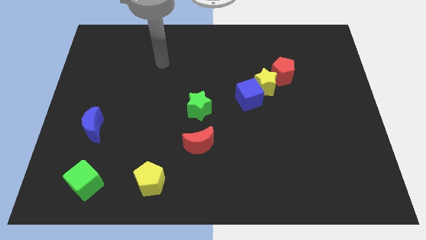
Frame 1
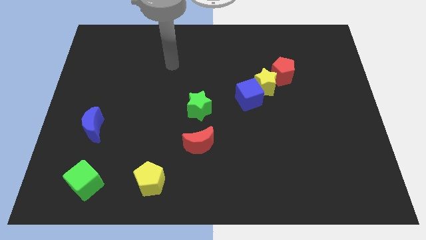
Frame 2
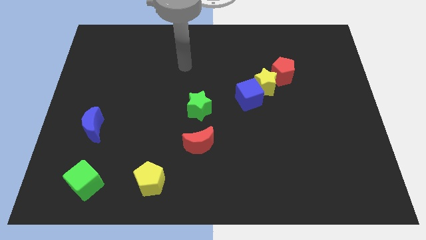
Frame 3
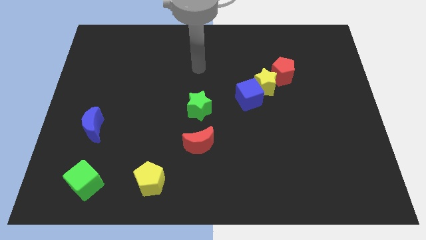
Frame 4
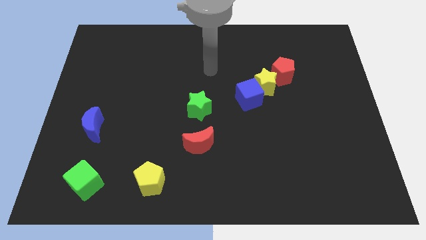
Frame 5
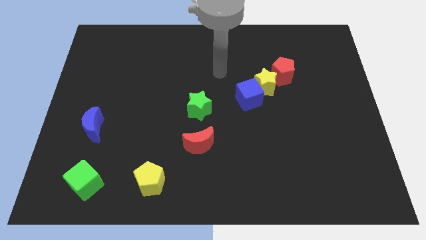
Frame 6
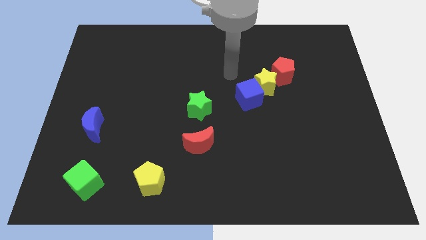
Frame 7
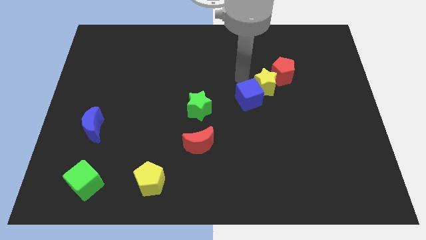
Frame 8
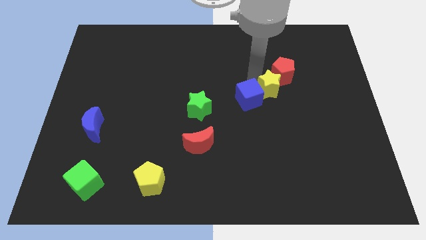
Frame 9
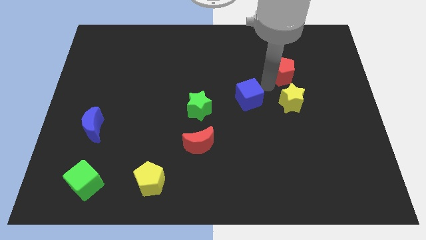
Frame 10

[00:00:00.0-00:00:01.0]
pull the blue cube apart from the yellow star

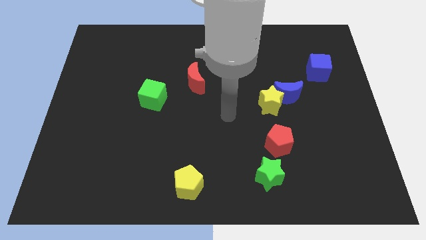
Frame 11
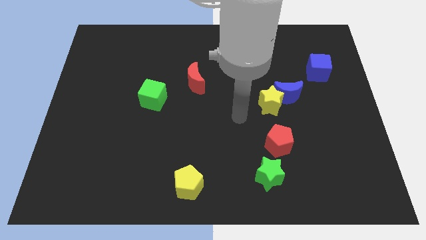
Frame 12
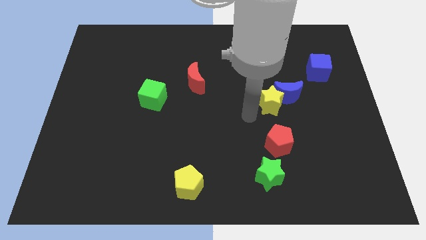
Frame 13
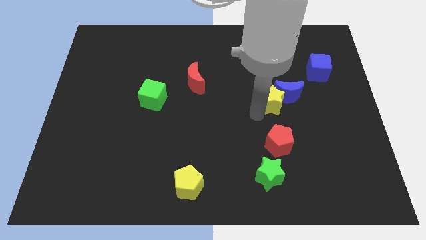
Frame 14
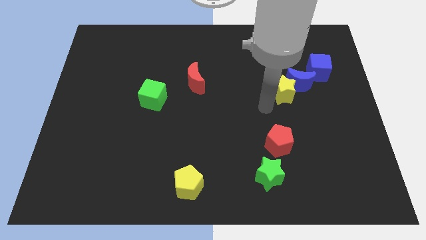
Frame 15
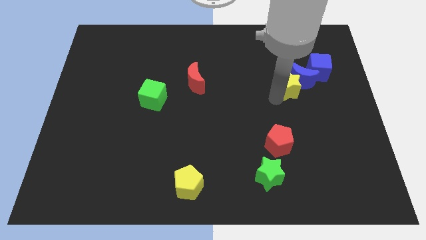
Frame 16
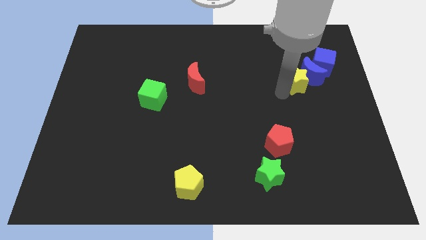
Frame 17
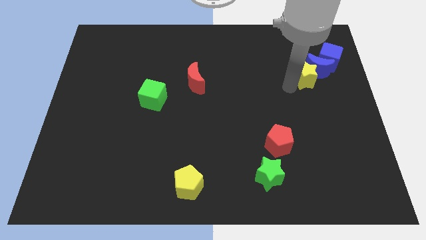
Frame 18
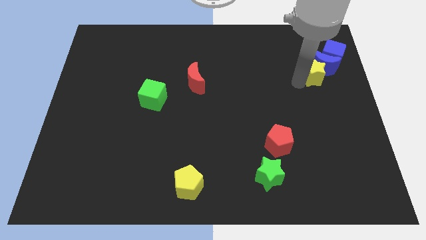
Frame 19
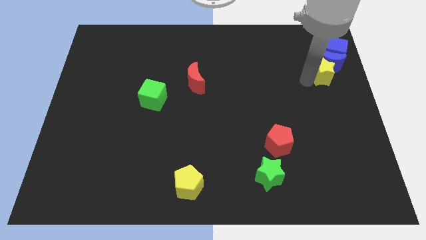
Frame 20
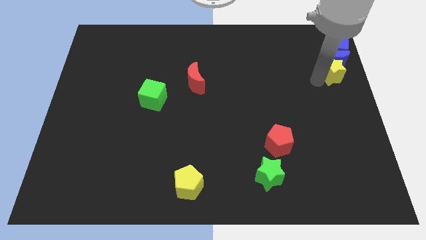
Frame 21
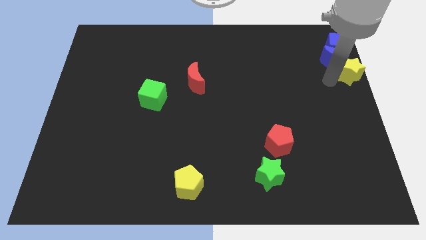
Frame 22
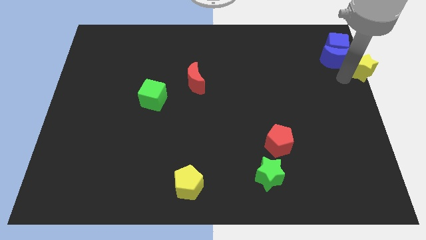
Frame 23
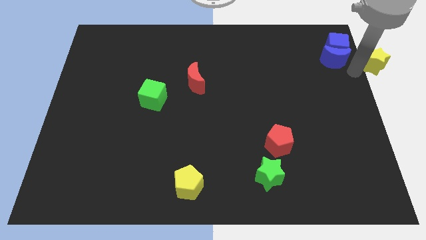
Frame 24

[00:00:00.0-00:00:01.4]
separate the blue moon from the yellow star

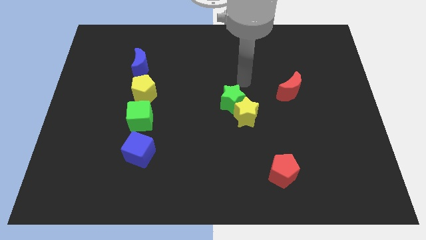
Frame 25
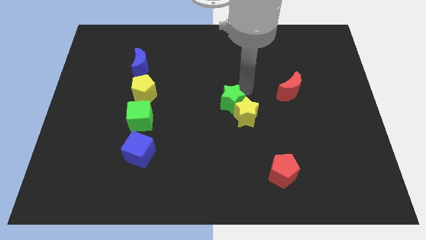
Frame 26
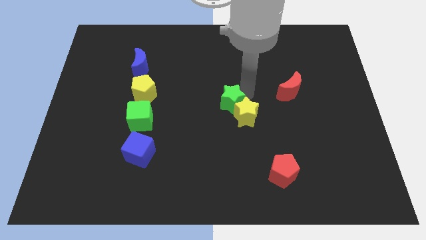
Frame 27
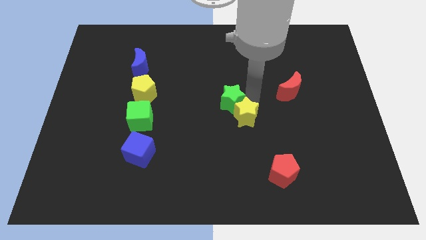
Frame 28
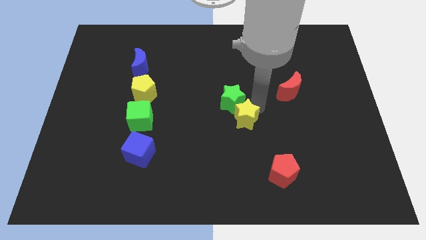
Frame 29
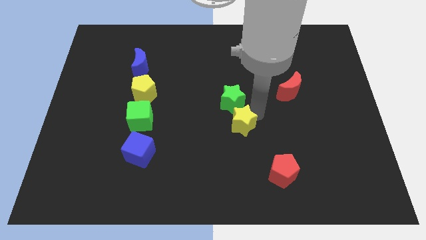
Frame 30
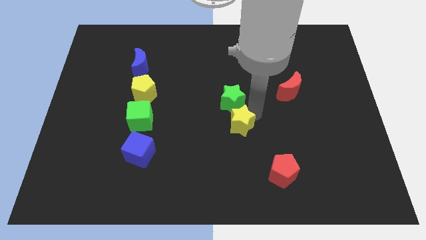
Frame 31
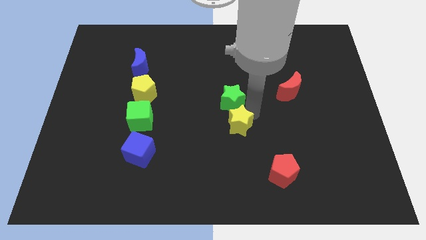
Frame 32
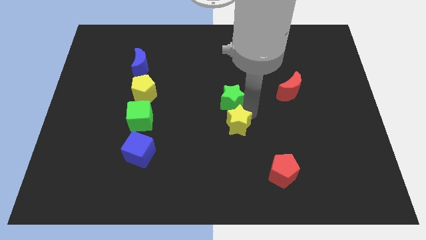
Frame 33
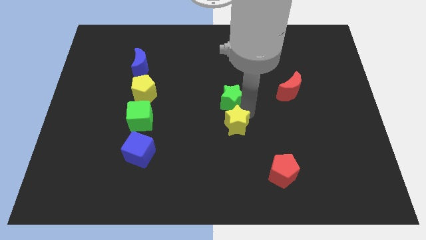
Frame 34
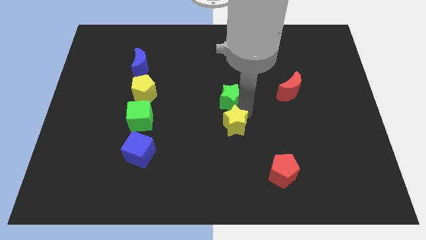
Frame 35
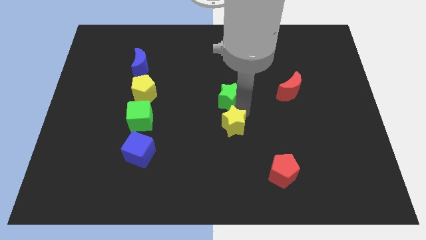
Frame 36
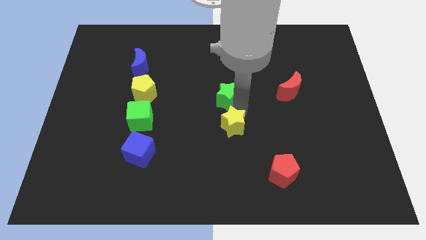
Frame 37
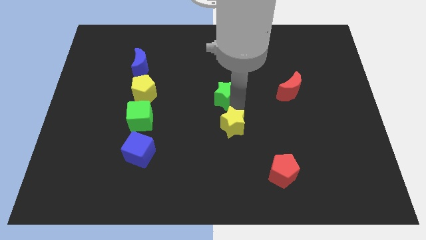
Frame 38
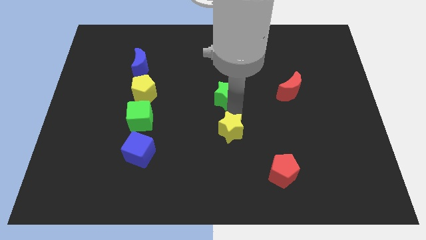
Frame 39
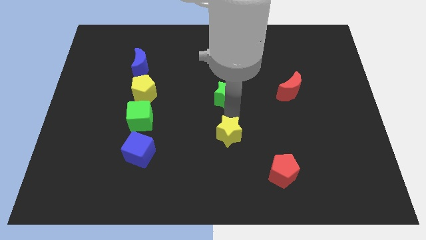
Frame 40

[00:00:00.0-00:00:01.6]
move the green star away from the yellow star

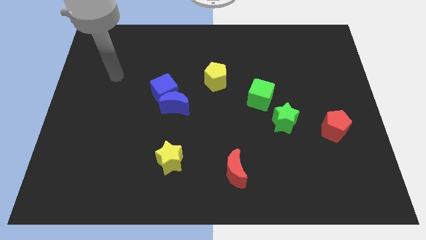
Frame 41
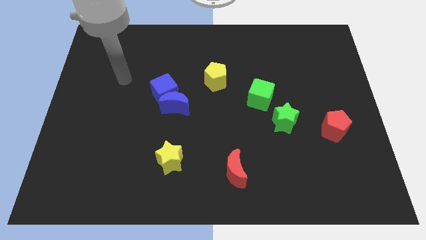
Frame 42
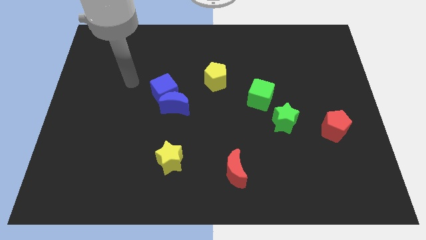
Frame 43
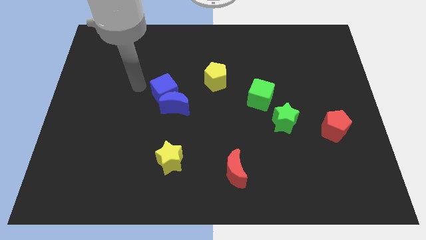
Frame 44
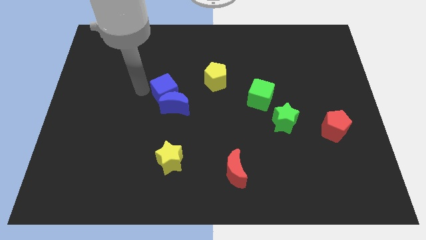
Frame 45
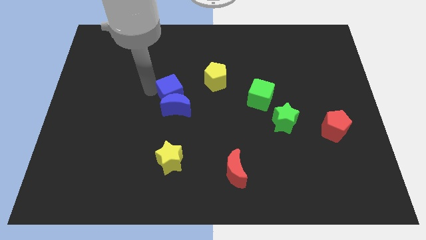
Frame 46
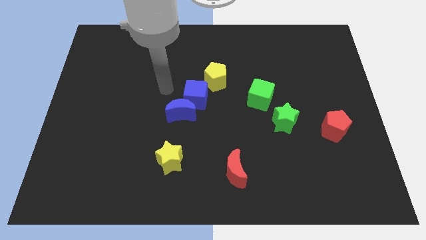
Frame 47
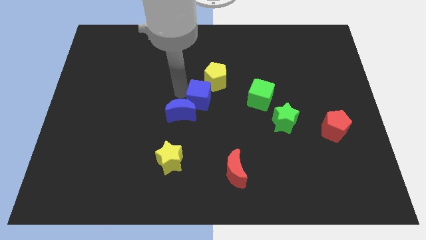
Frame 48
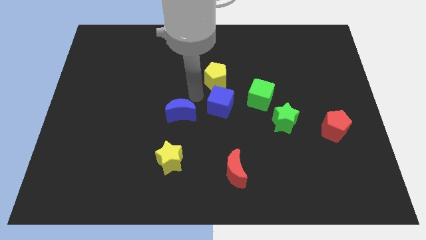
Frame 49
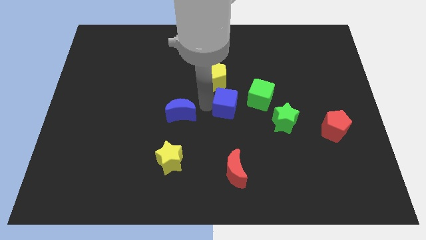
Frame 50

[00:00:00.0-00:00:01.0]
separate the blue moon from the blue cube

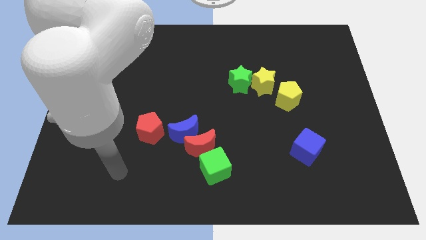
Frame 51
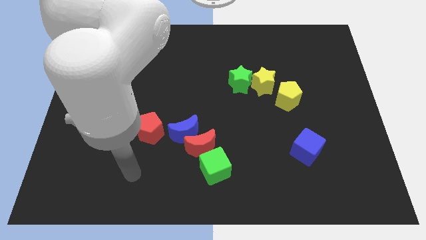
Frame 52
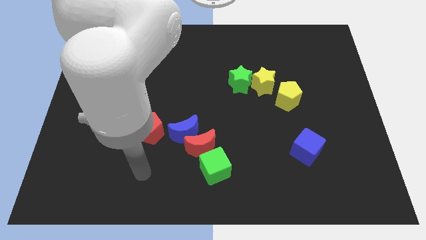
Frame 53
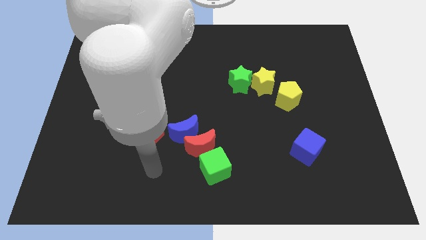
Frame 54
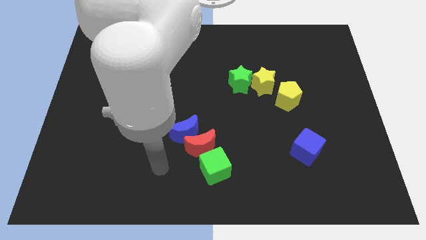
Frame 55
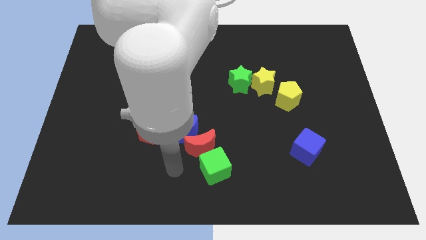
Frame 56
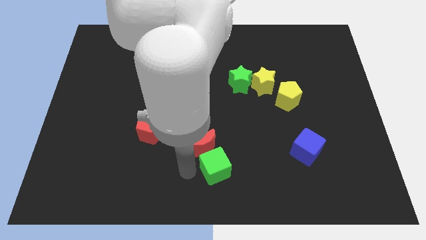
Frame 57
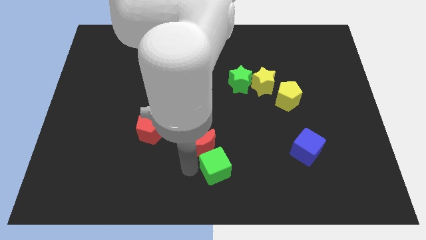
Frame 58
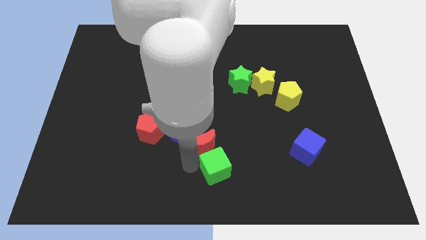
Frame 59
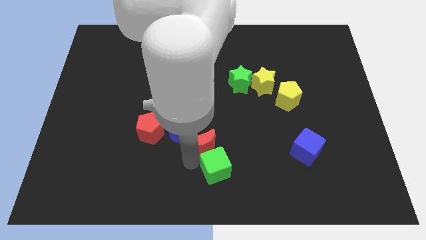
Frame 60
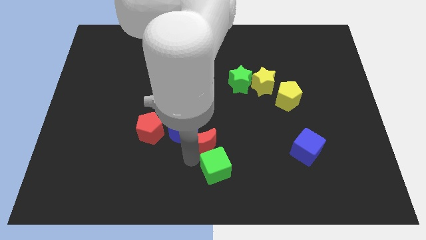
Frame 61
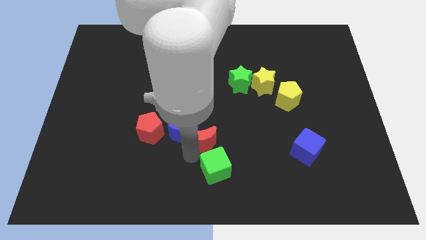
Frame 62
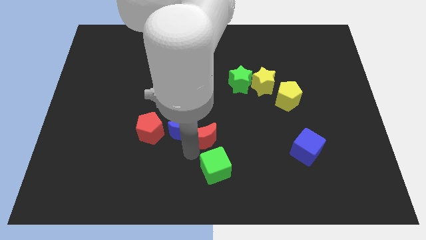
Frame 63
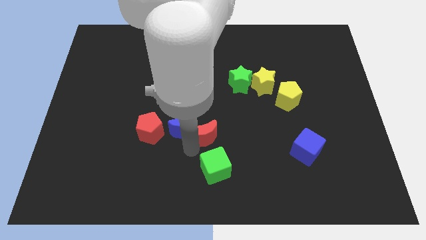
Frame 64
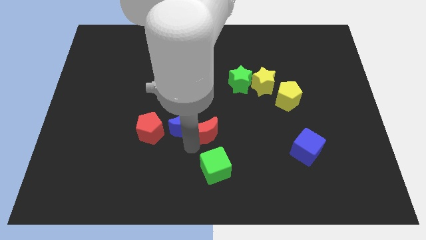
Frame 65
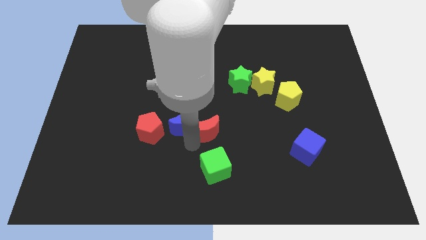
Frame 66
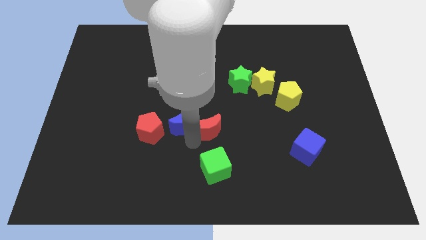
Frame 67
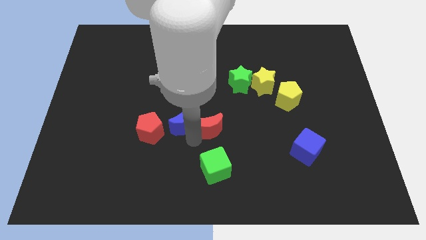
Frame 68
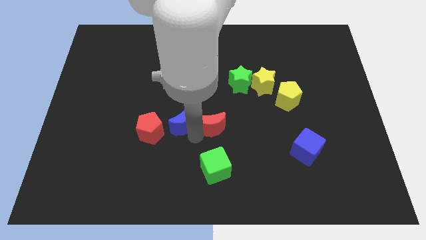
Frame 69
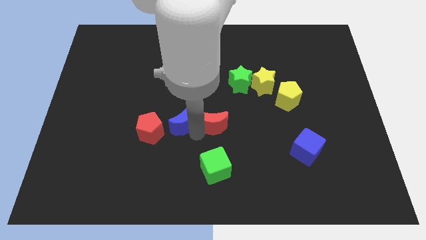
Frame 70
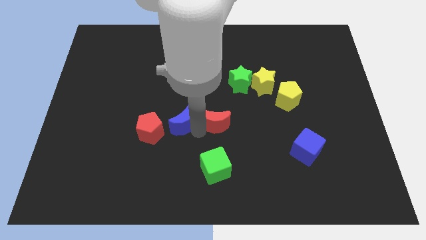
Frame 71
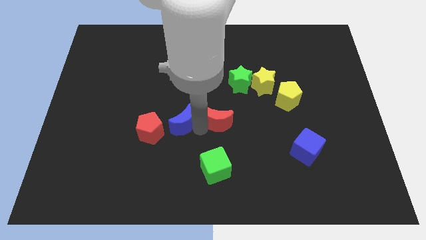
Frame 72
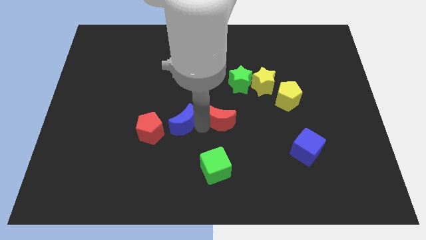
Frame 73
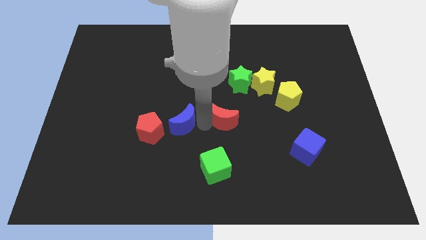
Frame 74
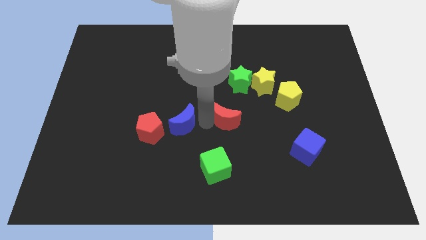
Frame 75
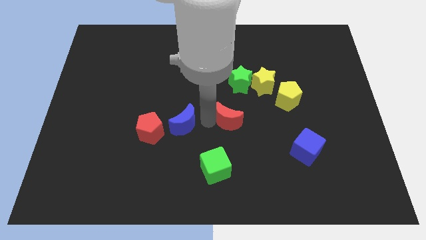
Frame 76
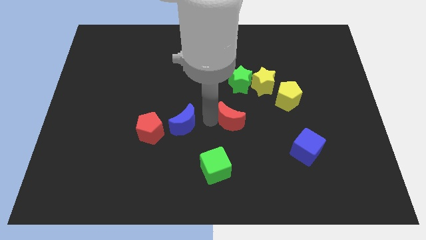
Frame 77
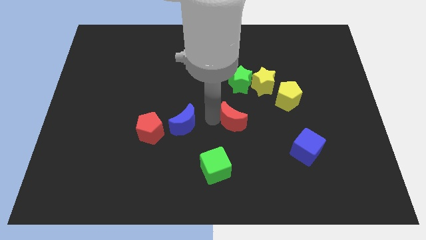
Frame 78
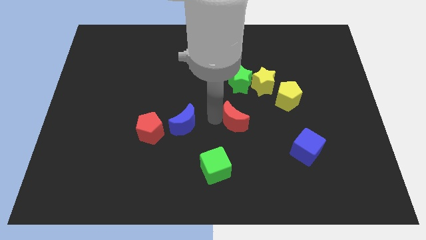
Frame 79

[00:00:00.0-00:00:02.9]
pull the red moon apart from the blue moon and green cube

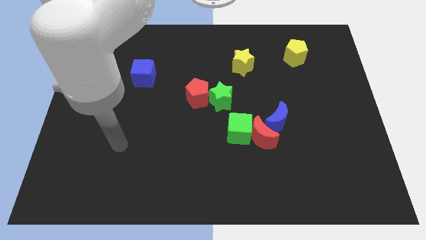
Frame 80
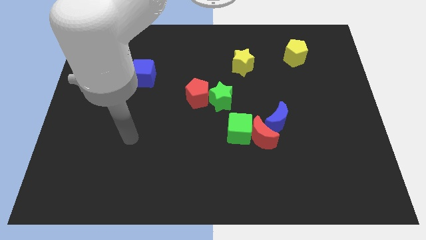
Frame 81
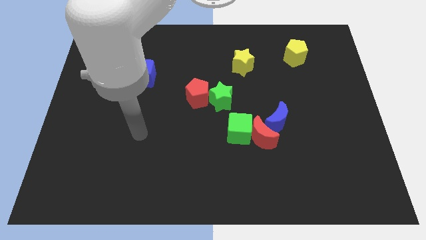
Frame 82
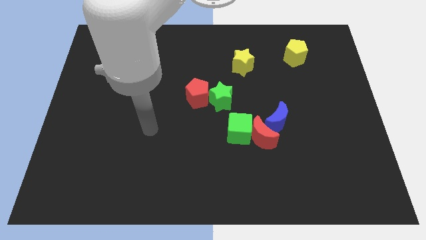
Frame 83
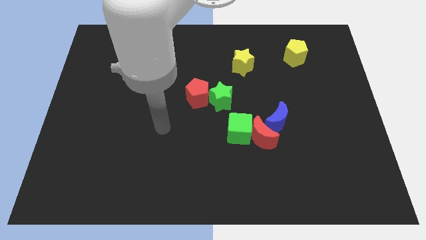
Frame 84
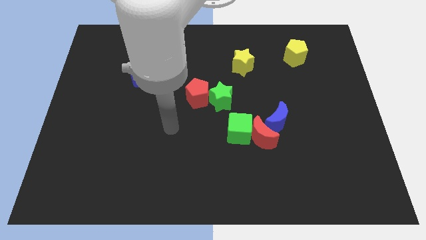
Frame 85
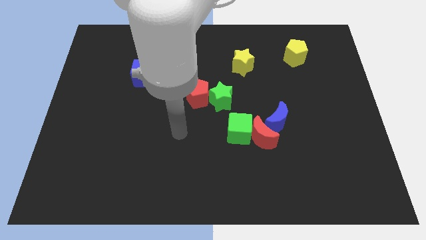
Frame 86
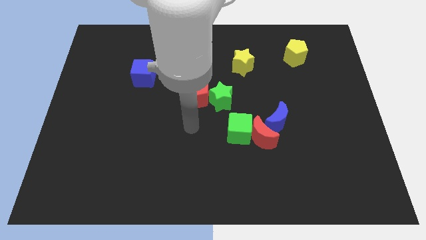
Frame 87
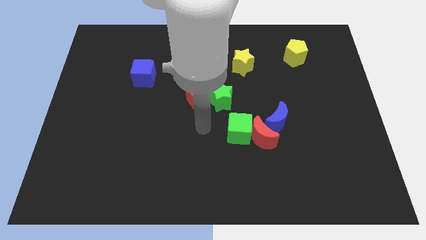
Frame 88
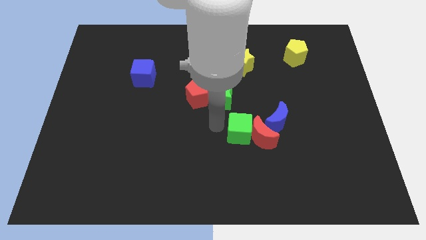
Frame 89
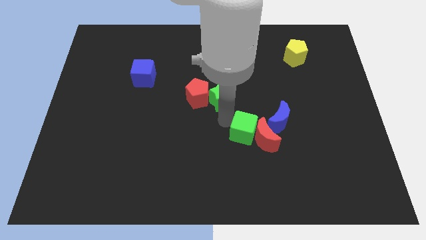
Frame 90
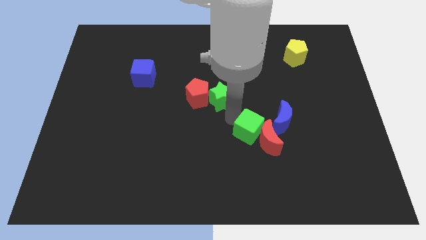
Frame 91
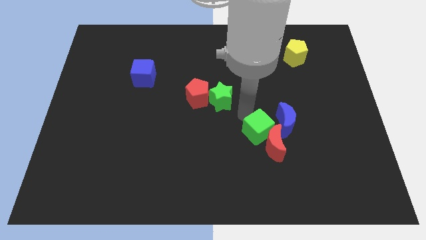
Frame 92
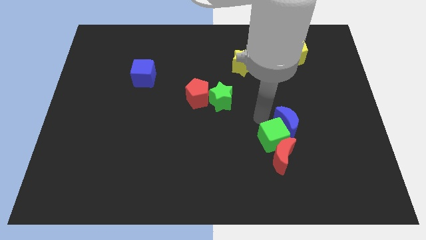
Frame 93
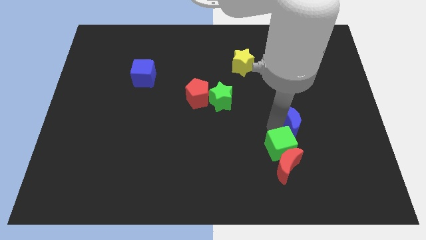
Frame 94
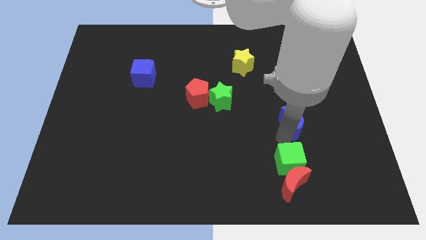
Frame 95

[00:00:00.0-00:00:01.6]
pull the red moon apart from the green cube and blue moon
